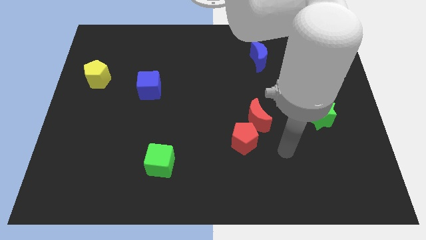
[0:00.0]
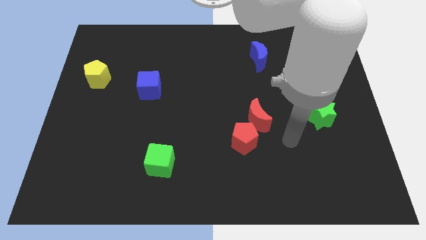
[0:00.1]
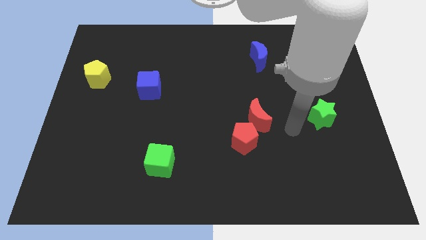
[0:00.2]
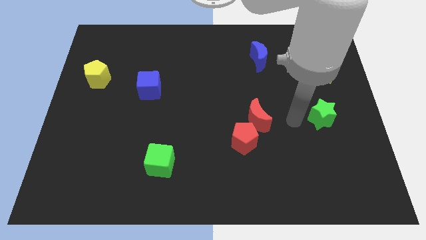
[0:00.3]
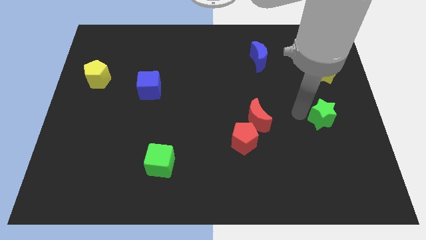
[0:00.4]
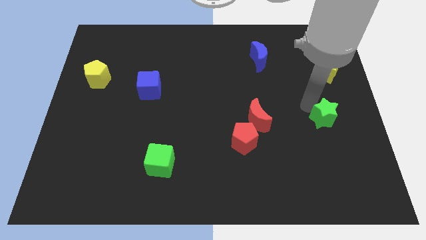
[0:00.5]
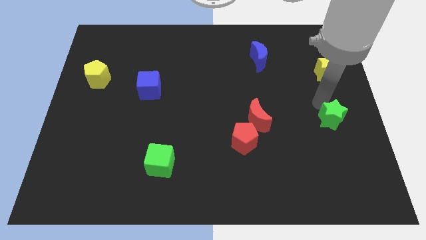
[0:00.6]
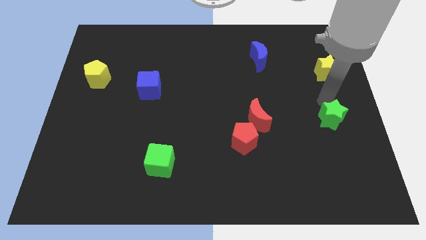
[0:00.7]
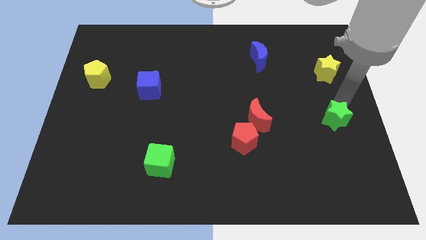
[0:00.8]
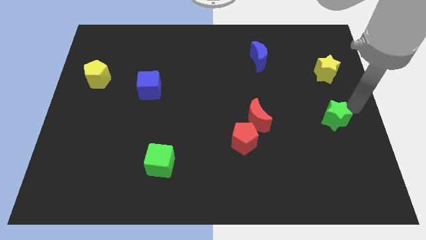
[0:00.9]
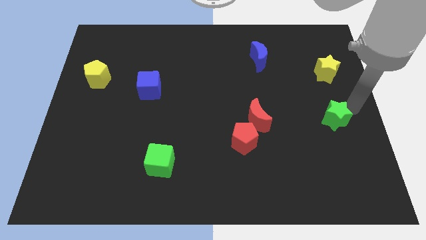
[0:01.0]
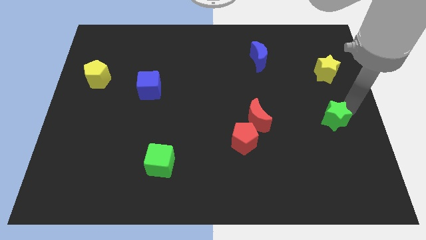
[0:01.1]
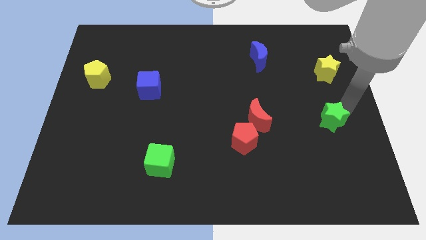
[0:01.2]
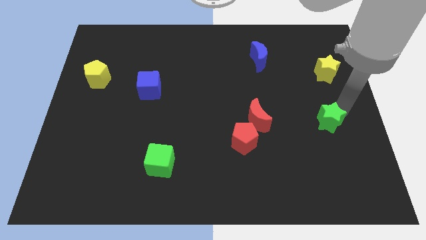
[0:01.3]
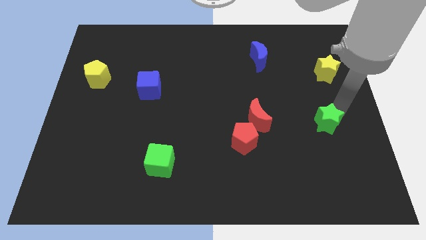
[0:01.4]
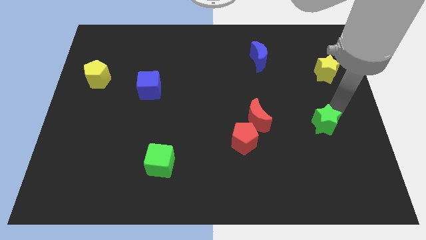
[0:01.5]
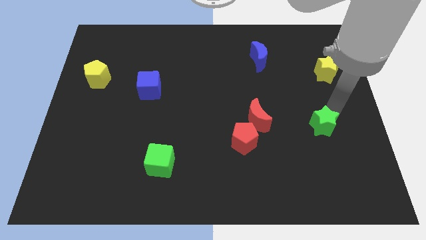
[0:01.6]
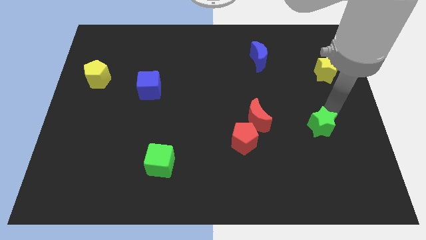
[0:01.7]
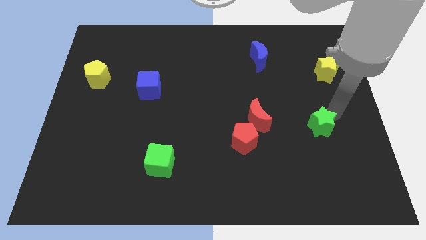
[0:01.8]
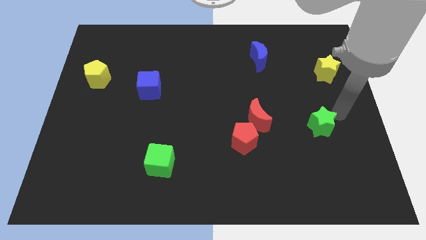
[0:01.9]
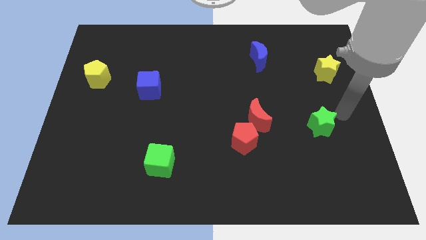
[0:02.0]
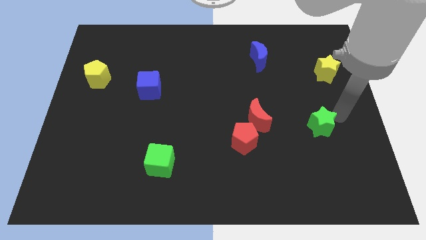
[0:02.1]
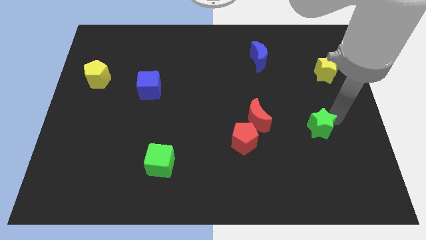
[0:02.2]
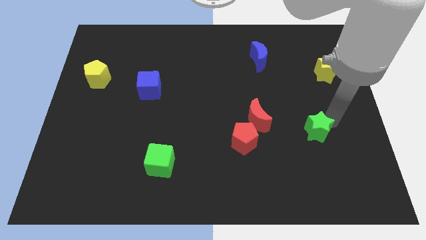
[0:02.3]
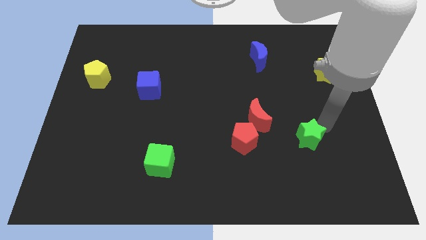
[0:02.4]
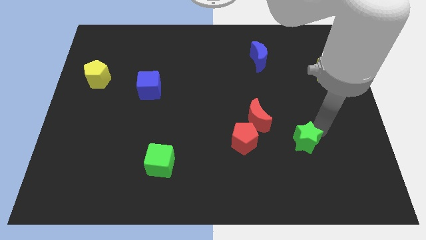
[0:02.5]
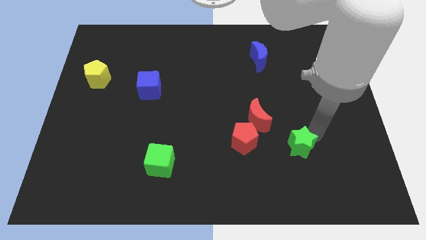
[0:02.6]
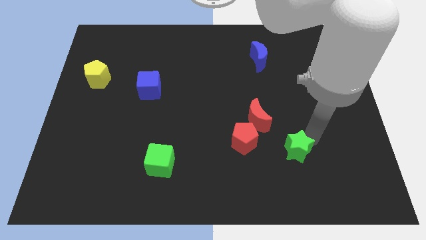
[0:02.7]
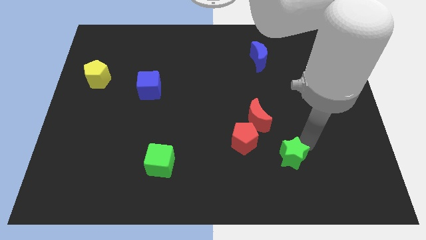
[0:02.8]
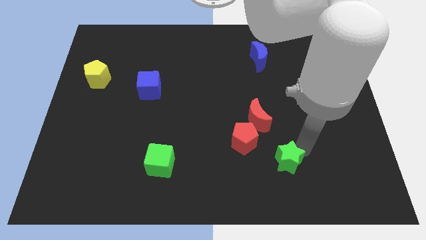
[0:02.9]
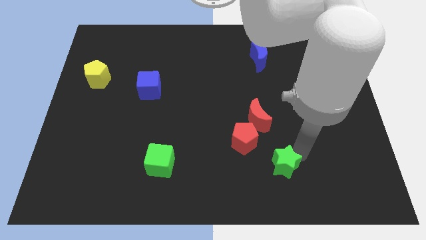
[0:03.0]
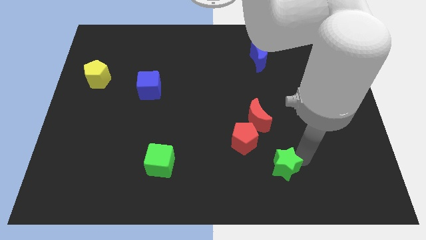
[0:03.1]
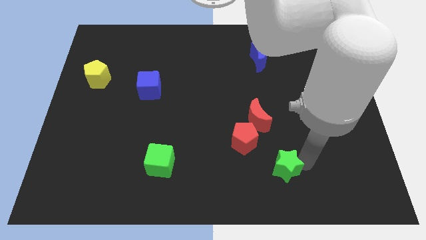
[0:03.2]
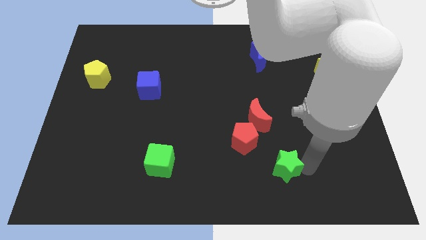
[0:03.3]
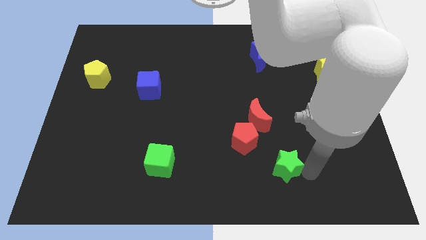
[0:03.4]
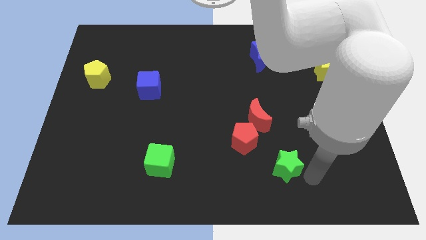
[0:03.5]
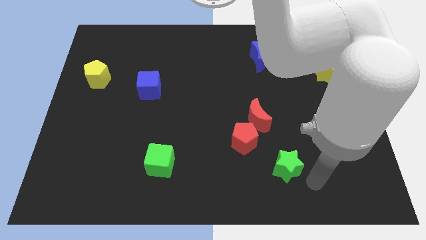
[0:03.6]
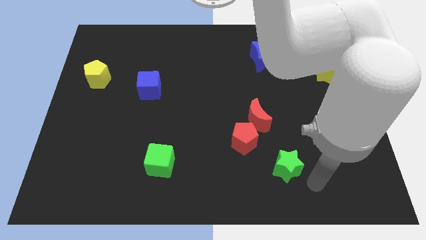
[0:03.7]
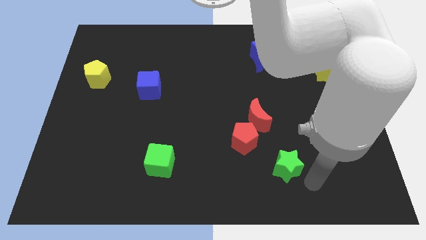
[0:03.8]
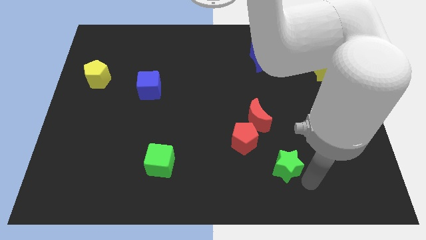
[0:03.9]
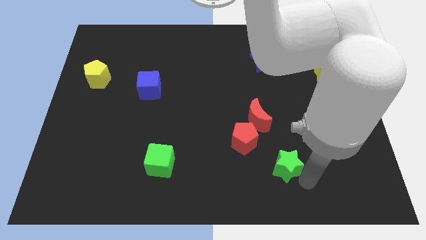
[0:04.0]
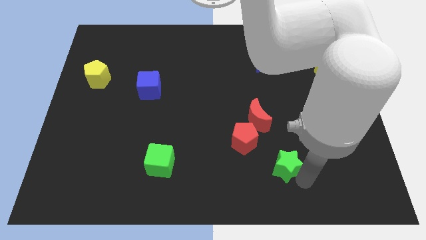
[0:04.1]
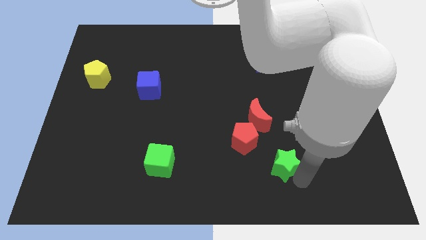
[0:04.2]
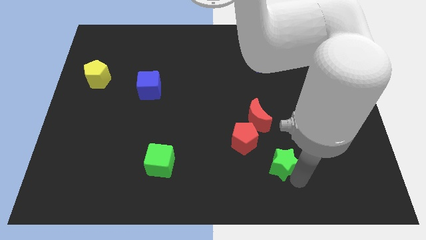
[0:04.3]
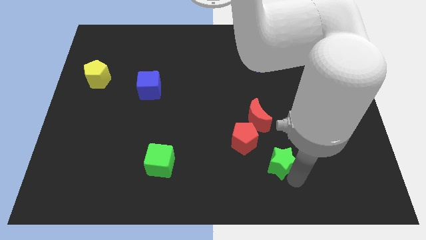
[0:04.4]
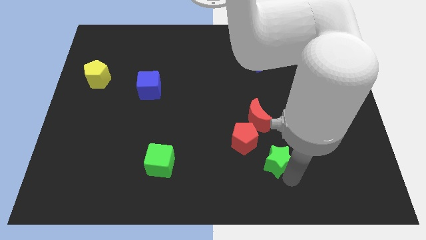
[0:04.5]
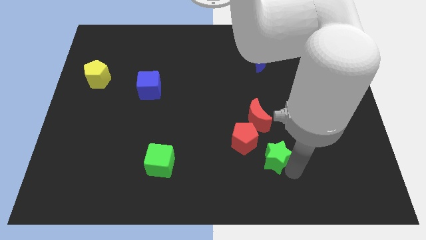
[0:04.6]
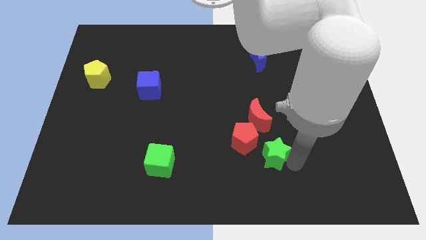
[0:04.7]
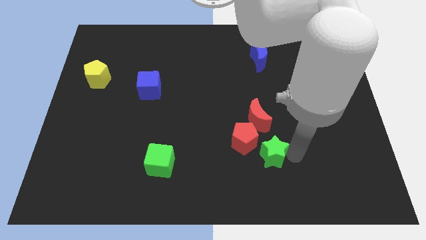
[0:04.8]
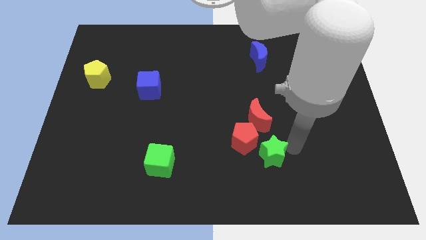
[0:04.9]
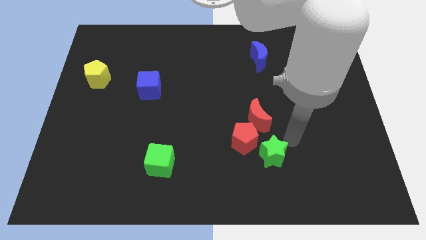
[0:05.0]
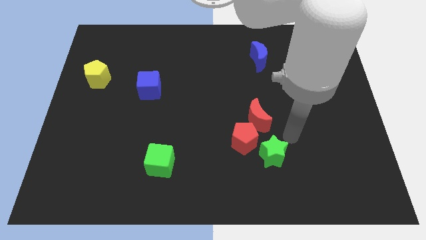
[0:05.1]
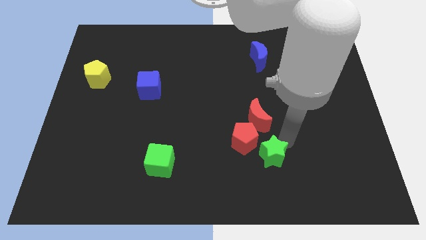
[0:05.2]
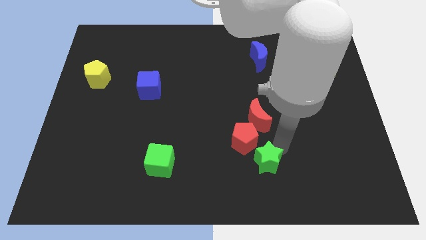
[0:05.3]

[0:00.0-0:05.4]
put the green star to the bottom of the red pentagon

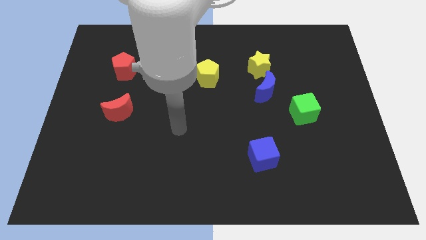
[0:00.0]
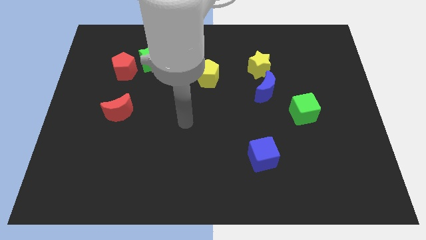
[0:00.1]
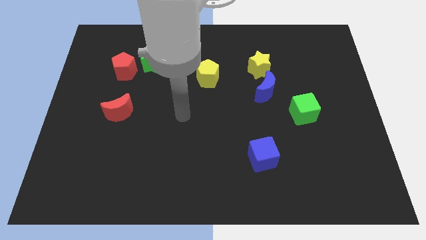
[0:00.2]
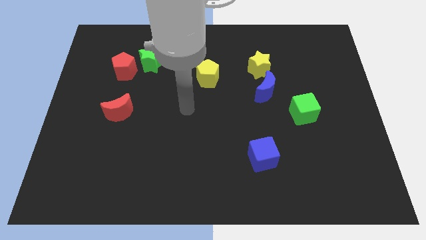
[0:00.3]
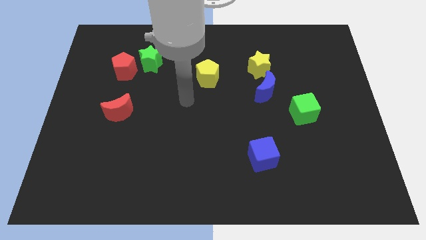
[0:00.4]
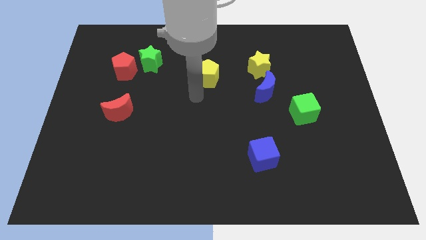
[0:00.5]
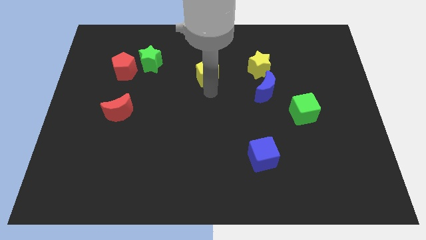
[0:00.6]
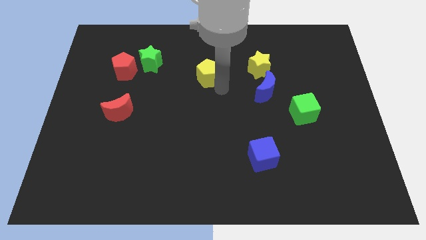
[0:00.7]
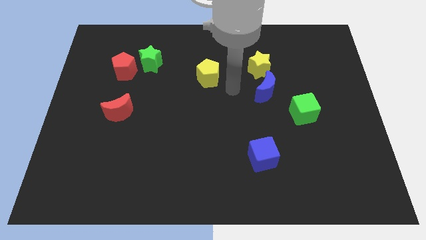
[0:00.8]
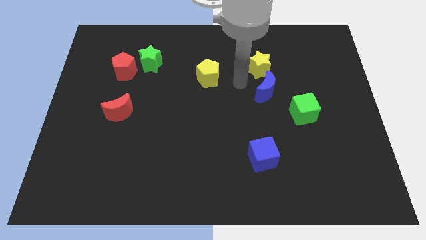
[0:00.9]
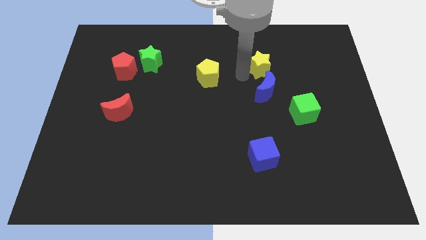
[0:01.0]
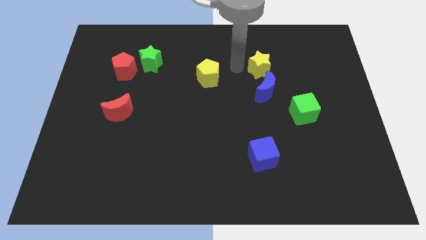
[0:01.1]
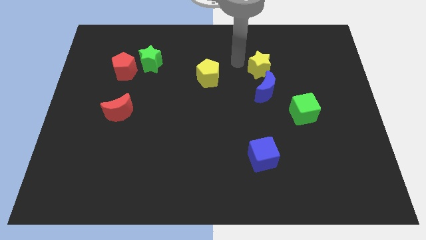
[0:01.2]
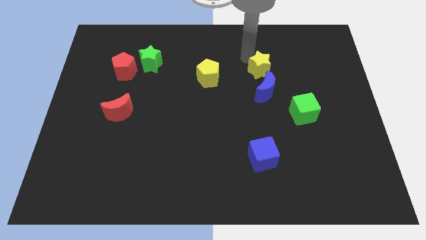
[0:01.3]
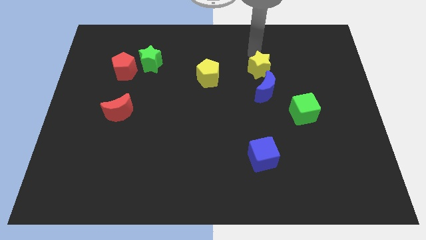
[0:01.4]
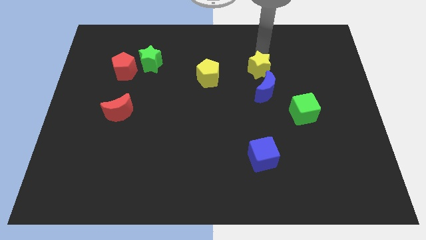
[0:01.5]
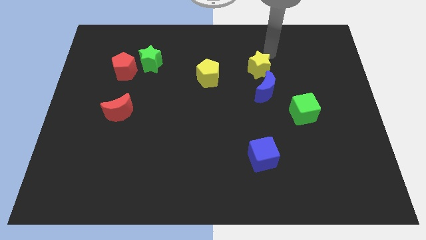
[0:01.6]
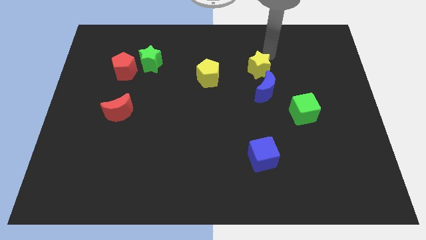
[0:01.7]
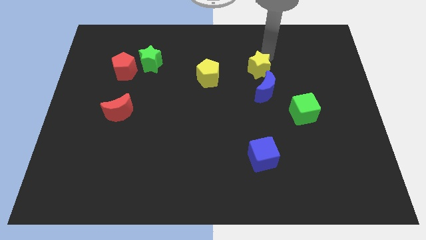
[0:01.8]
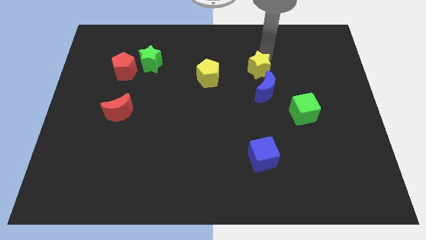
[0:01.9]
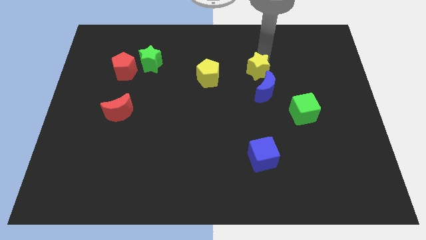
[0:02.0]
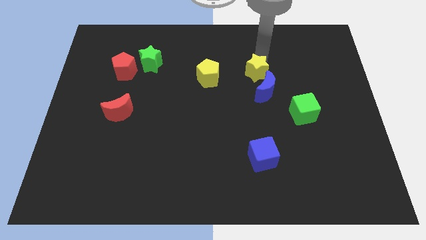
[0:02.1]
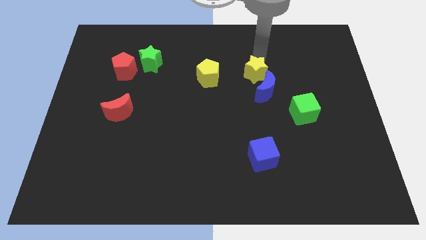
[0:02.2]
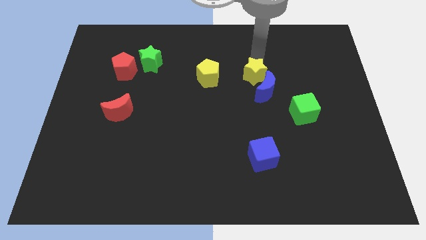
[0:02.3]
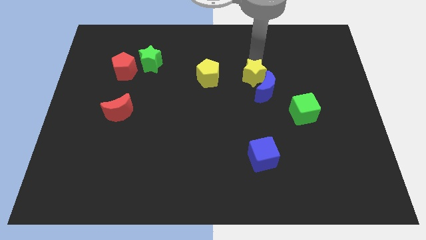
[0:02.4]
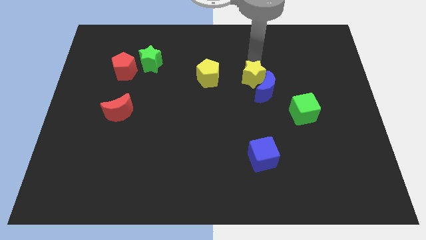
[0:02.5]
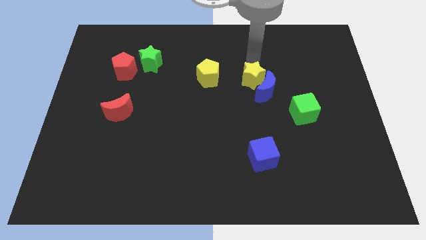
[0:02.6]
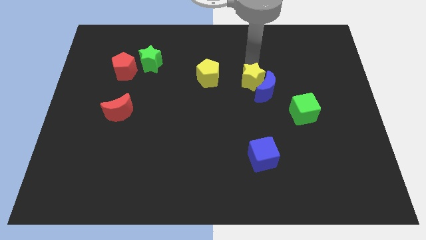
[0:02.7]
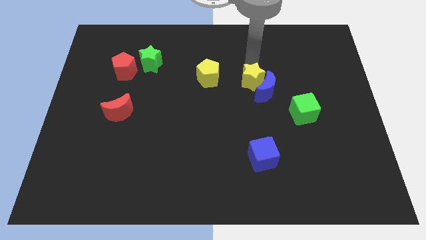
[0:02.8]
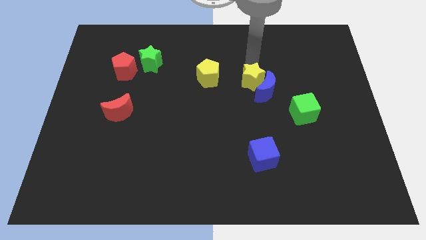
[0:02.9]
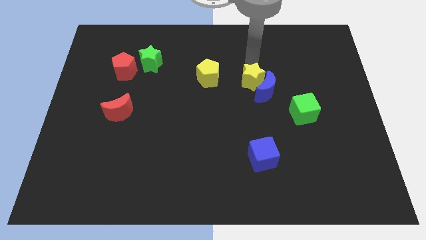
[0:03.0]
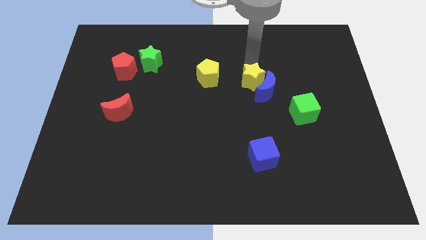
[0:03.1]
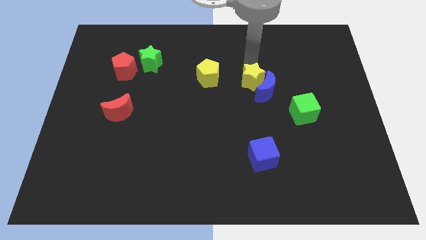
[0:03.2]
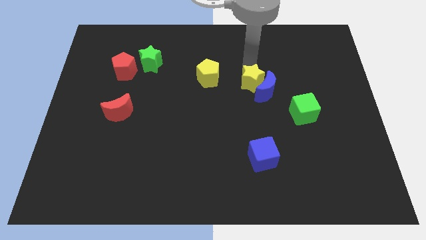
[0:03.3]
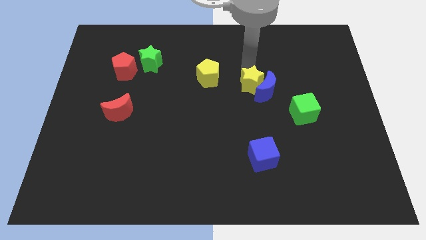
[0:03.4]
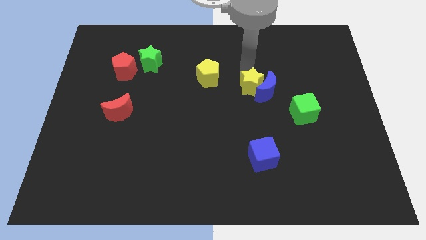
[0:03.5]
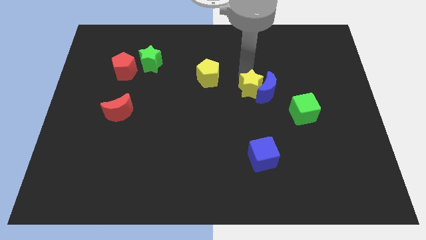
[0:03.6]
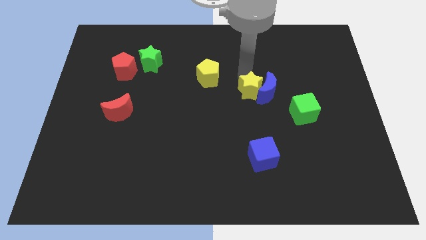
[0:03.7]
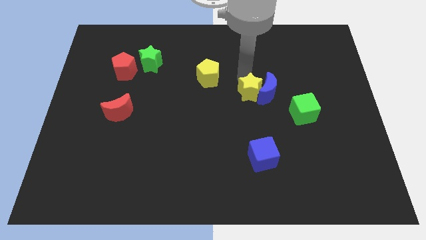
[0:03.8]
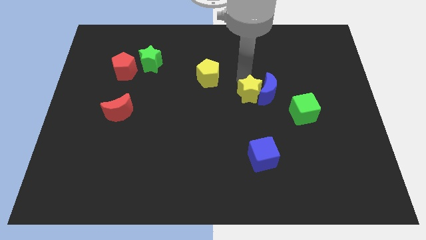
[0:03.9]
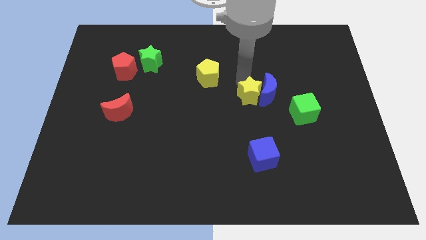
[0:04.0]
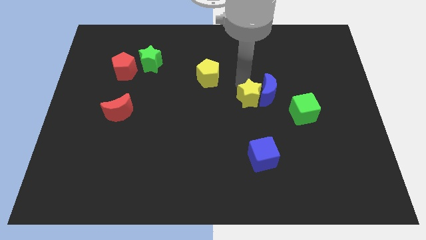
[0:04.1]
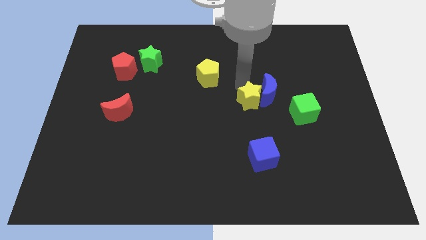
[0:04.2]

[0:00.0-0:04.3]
put the yellow star to the top of the blue cube
